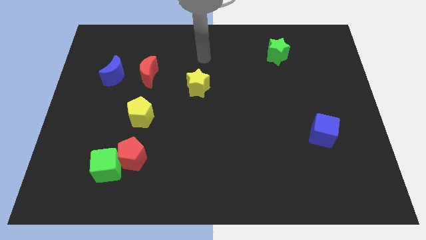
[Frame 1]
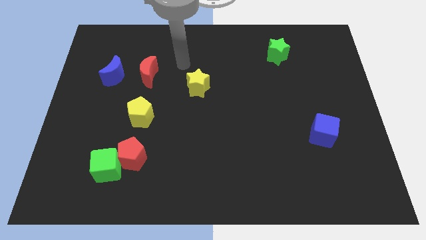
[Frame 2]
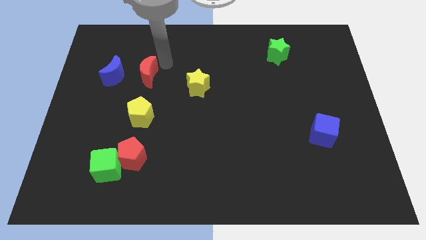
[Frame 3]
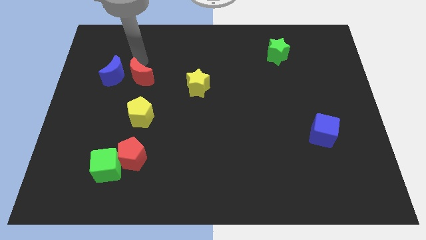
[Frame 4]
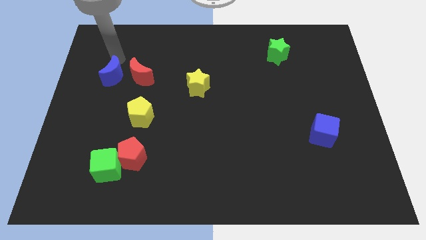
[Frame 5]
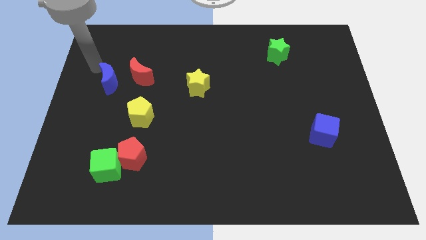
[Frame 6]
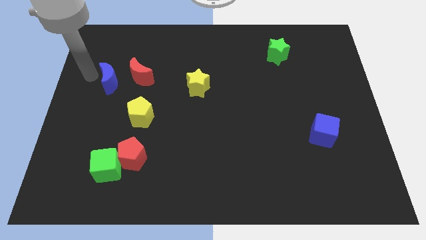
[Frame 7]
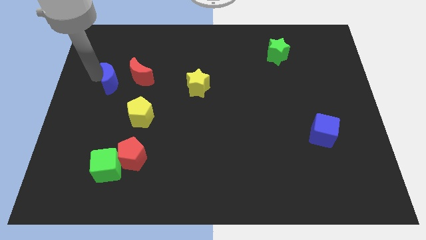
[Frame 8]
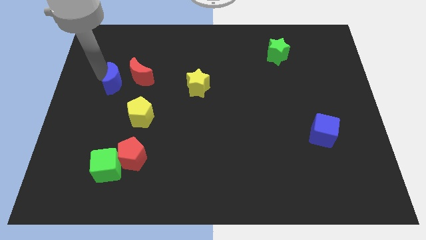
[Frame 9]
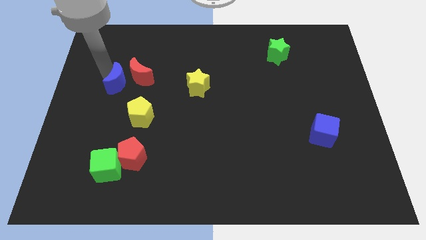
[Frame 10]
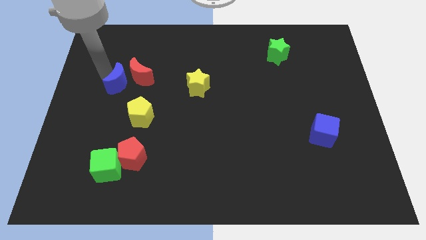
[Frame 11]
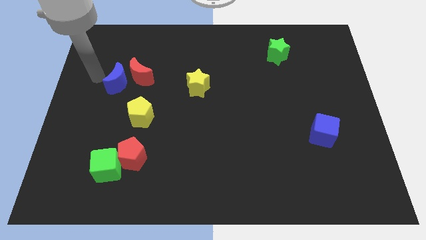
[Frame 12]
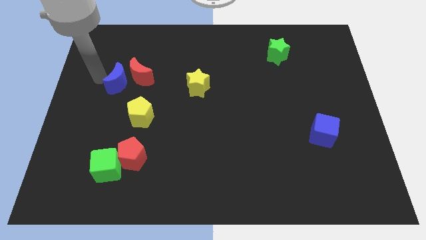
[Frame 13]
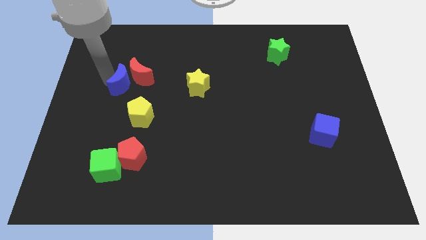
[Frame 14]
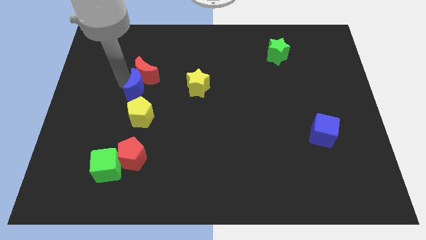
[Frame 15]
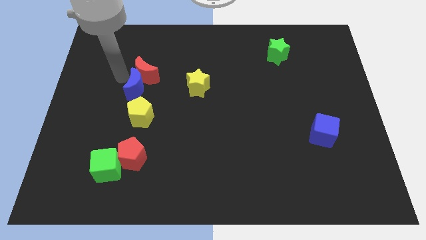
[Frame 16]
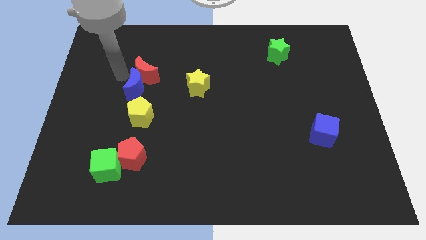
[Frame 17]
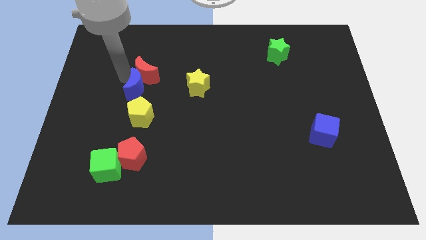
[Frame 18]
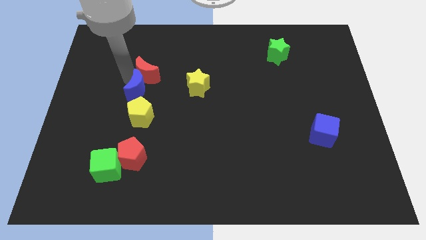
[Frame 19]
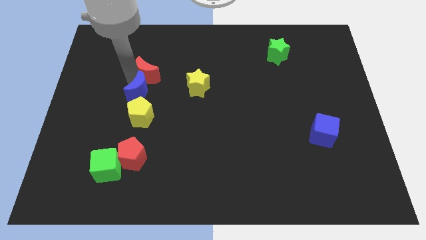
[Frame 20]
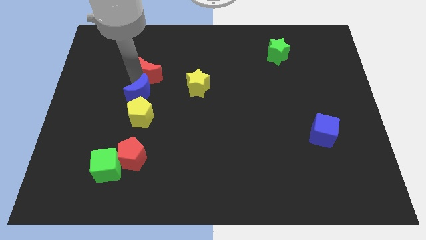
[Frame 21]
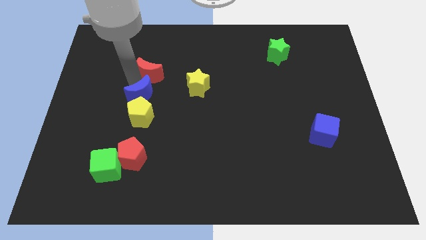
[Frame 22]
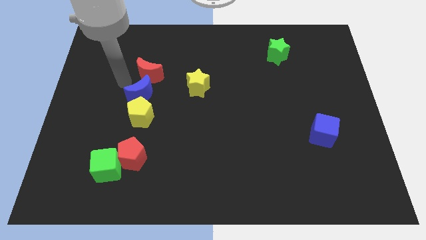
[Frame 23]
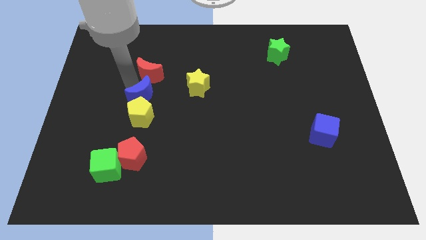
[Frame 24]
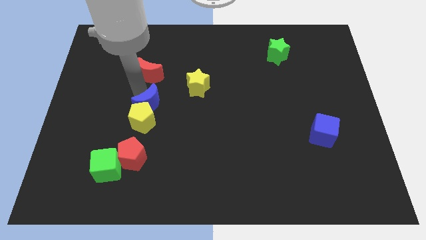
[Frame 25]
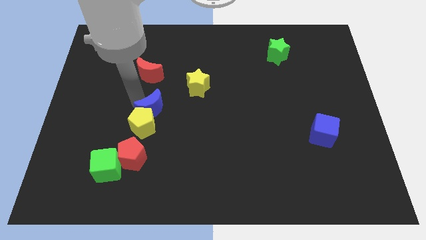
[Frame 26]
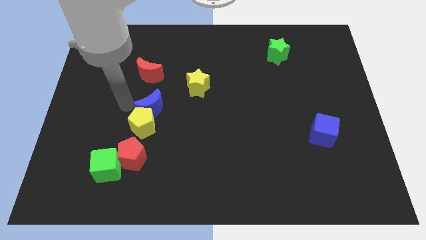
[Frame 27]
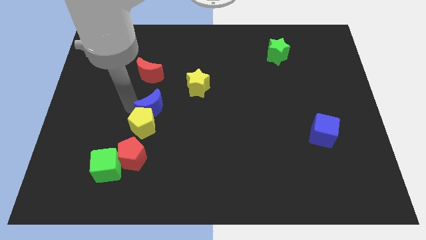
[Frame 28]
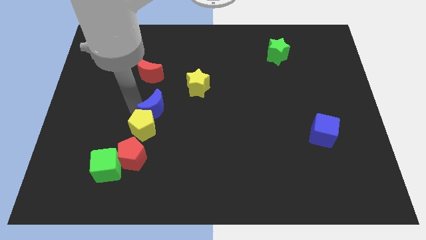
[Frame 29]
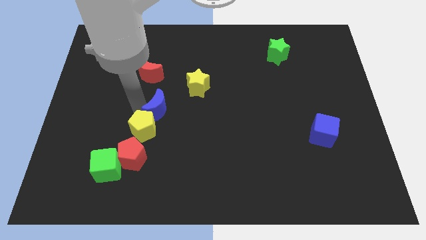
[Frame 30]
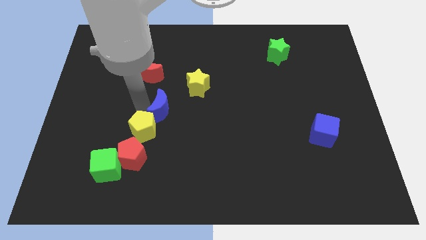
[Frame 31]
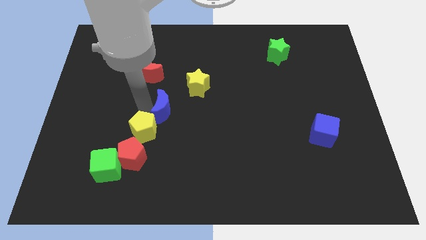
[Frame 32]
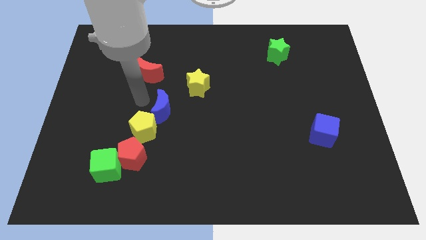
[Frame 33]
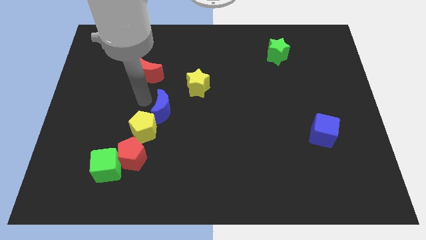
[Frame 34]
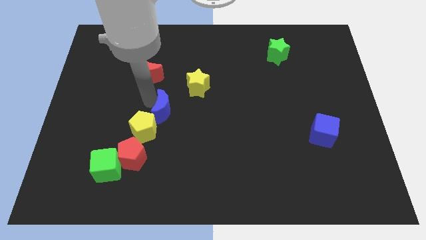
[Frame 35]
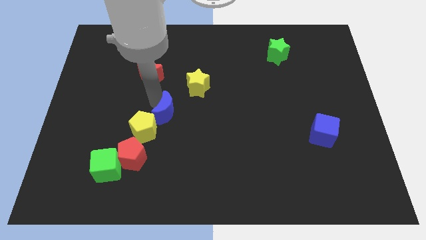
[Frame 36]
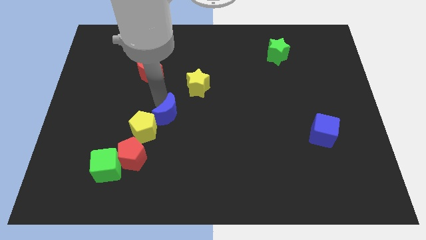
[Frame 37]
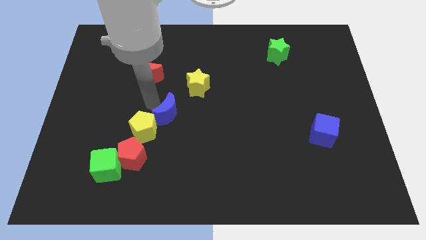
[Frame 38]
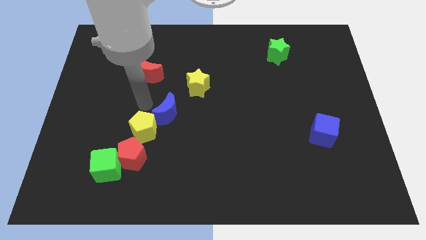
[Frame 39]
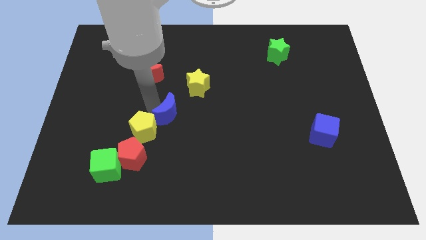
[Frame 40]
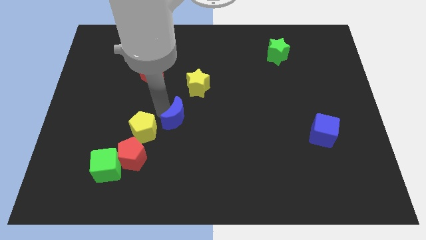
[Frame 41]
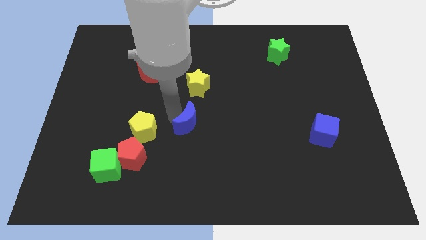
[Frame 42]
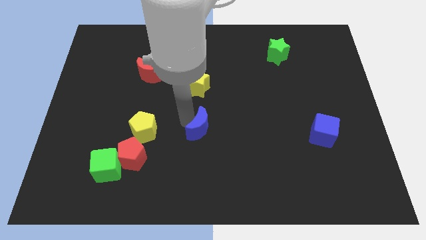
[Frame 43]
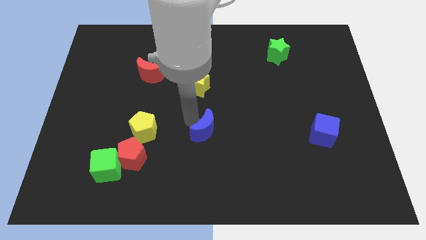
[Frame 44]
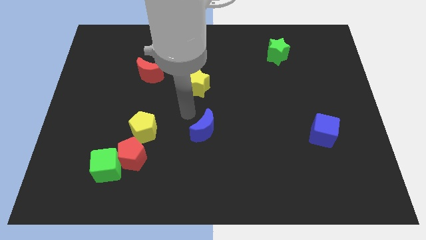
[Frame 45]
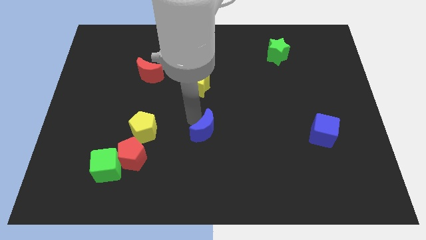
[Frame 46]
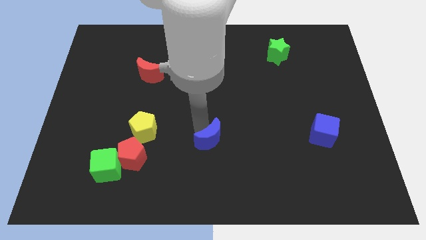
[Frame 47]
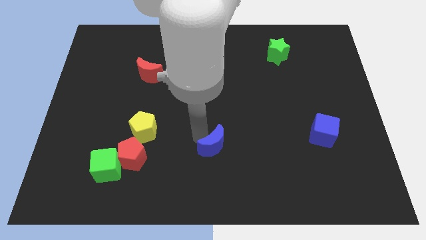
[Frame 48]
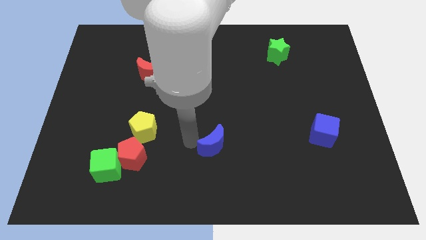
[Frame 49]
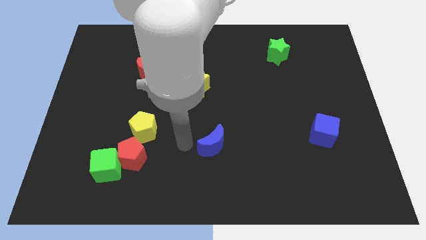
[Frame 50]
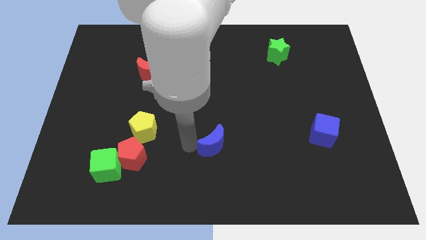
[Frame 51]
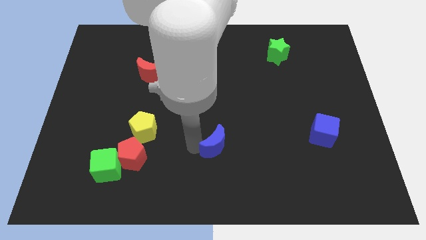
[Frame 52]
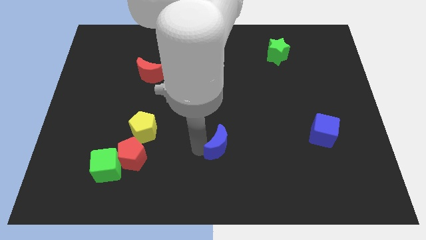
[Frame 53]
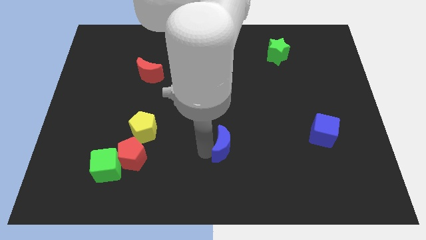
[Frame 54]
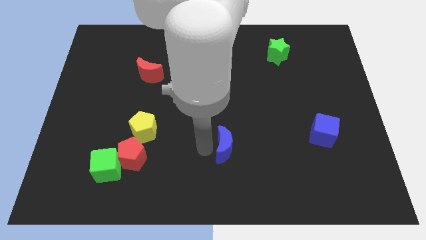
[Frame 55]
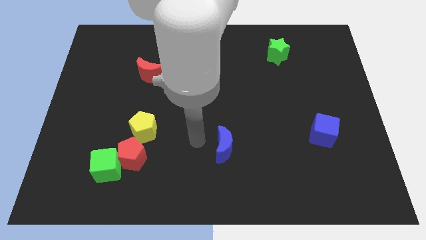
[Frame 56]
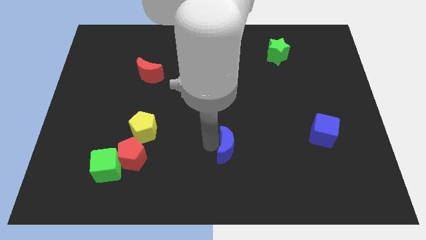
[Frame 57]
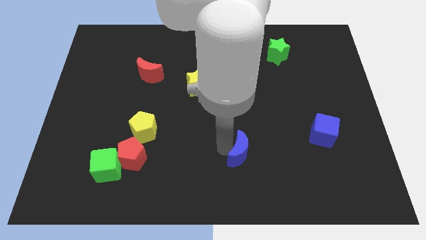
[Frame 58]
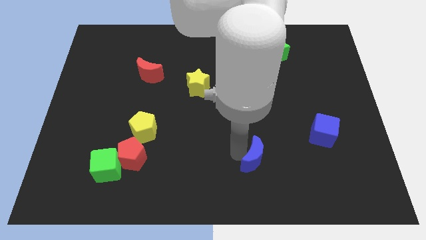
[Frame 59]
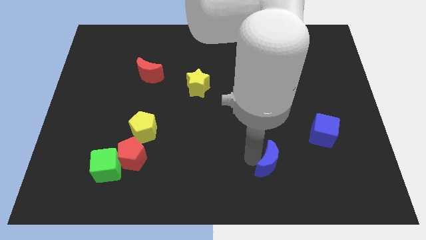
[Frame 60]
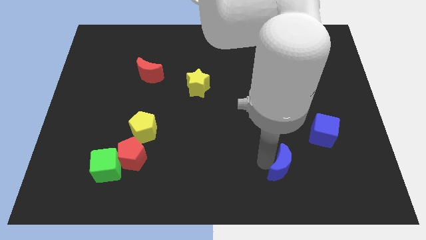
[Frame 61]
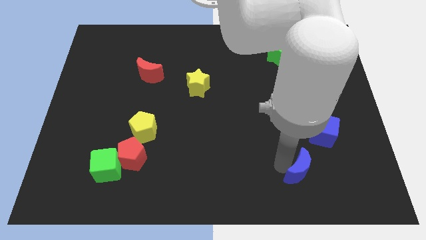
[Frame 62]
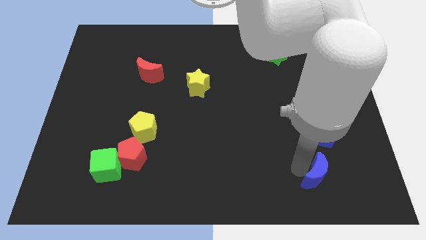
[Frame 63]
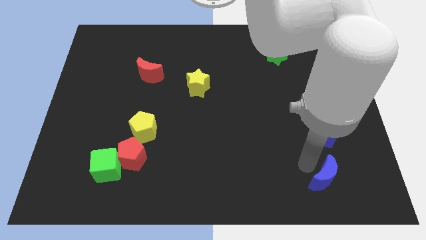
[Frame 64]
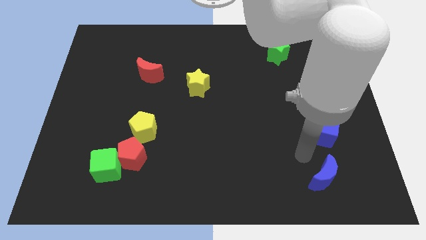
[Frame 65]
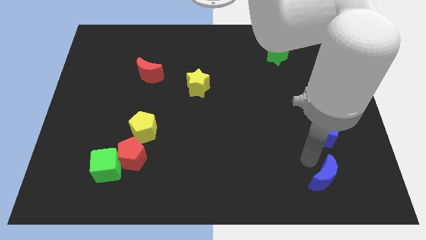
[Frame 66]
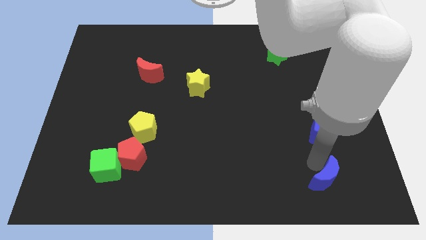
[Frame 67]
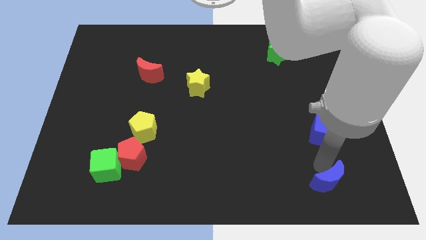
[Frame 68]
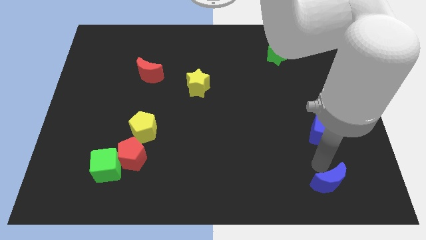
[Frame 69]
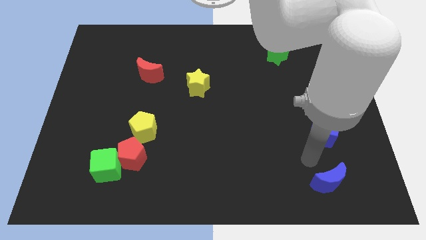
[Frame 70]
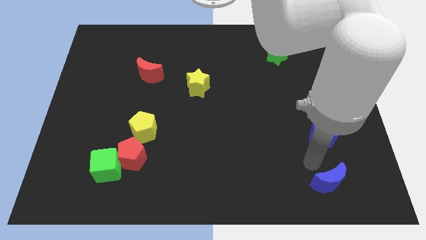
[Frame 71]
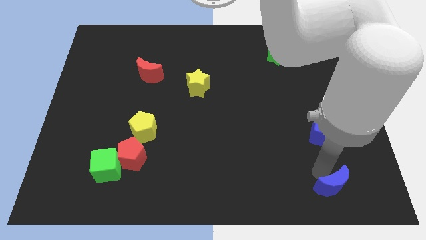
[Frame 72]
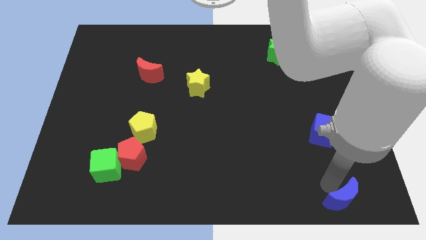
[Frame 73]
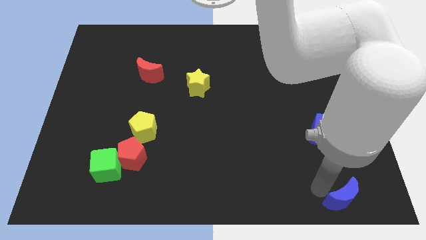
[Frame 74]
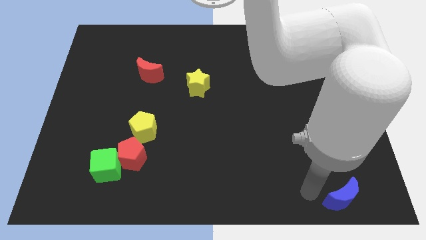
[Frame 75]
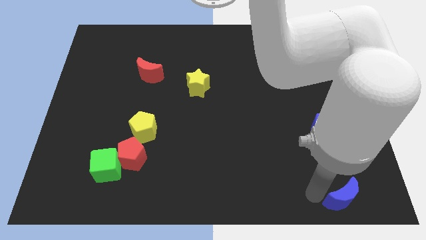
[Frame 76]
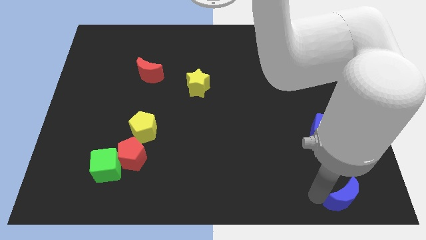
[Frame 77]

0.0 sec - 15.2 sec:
push the blue moon to the bottom right corner
